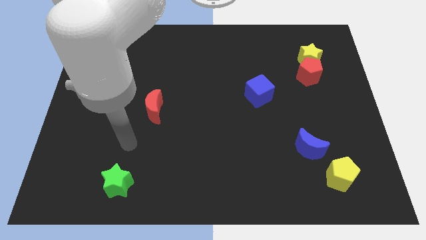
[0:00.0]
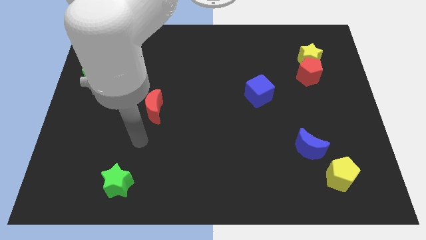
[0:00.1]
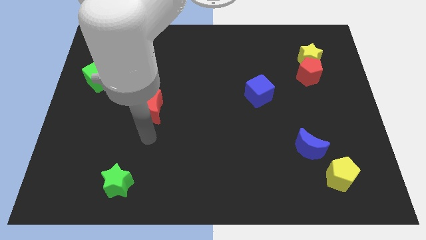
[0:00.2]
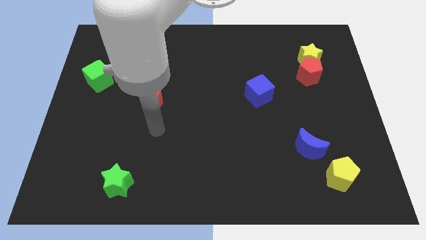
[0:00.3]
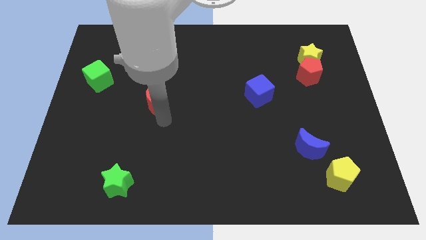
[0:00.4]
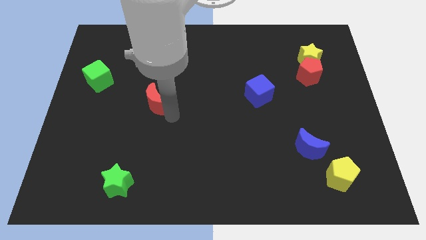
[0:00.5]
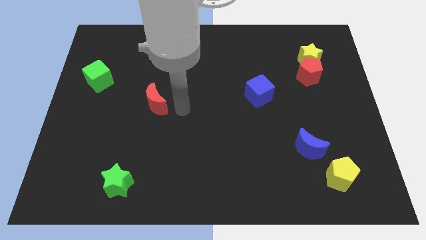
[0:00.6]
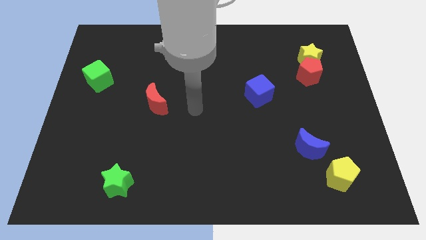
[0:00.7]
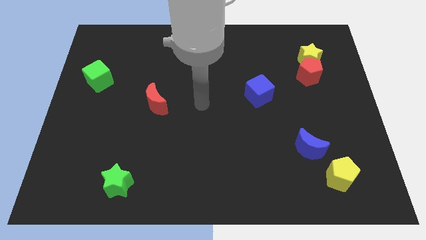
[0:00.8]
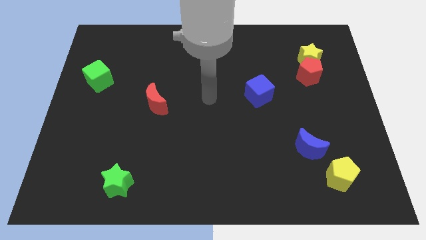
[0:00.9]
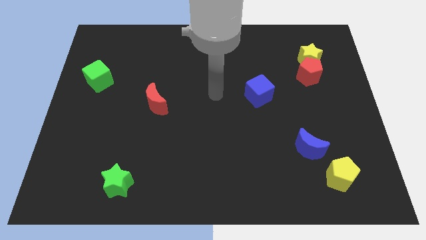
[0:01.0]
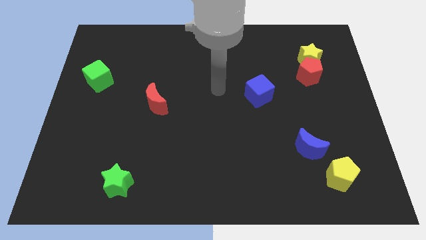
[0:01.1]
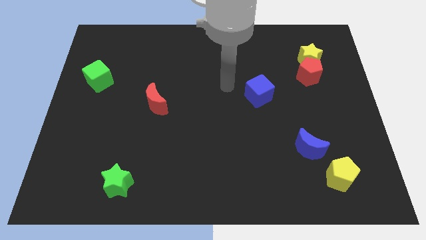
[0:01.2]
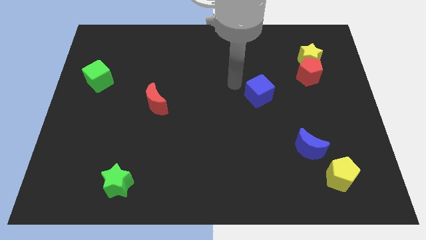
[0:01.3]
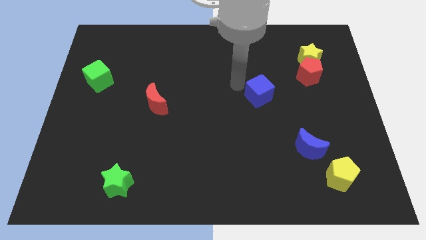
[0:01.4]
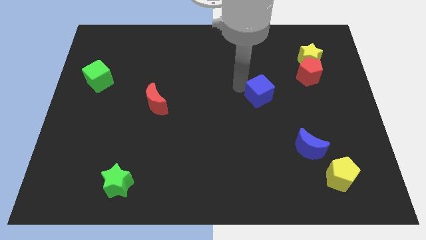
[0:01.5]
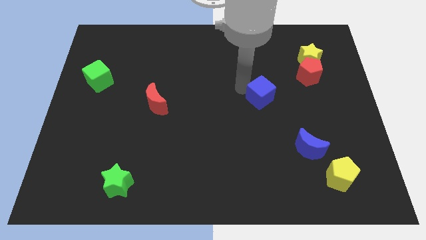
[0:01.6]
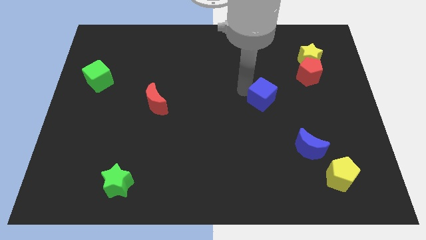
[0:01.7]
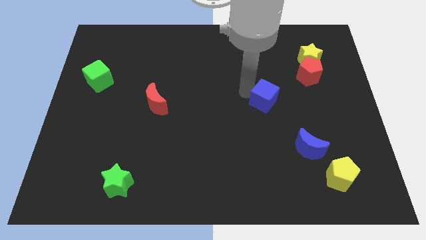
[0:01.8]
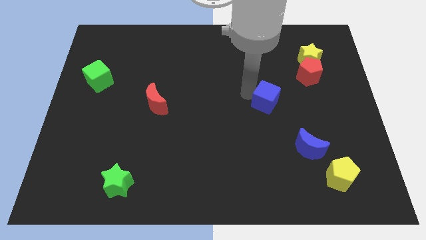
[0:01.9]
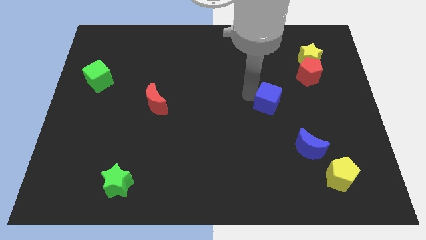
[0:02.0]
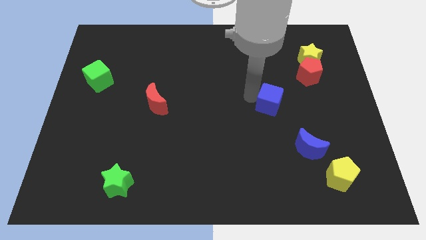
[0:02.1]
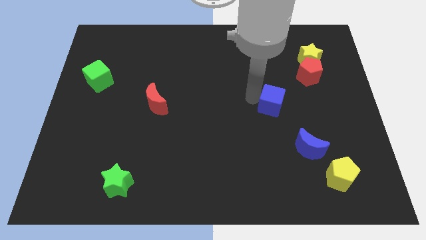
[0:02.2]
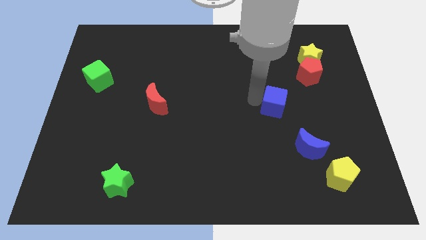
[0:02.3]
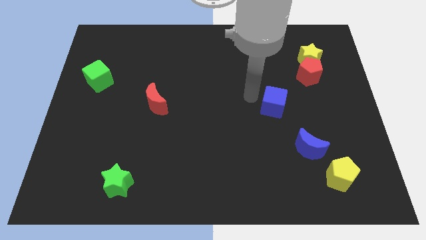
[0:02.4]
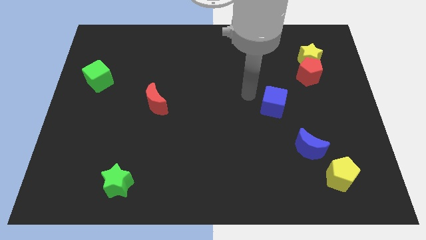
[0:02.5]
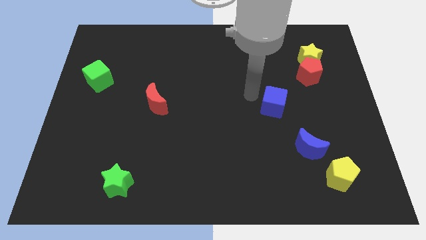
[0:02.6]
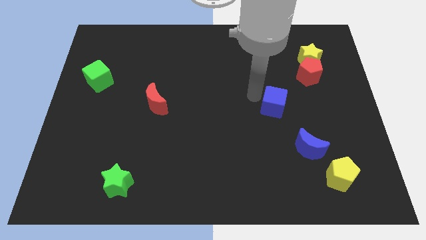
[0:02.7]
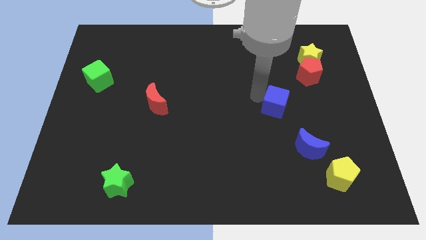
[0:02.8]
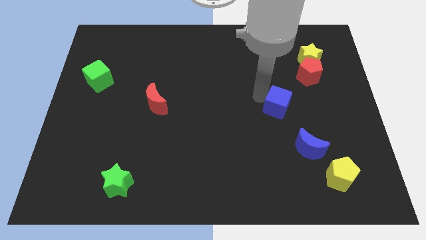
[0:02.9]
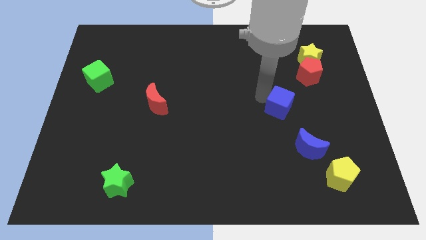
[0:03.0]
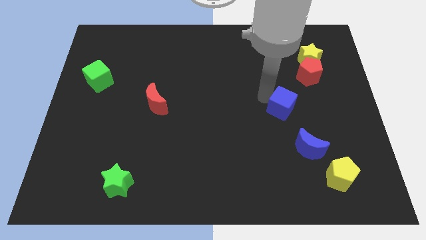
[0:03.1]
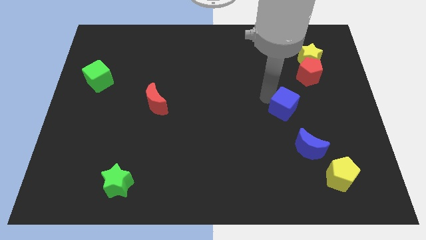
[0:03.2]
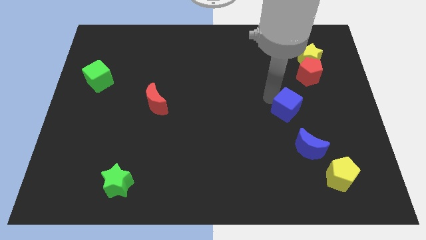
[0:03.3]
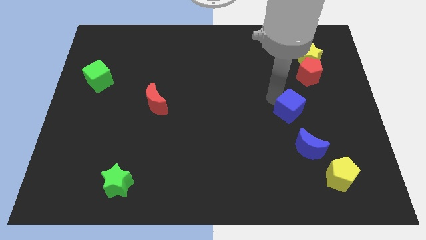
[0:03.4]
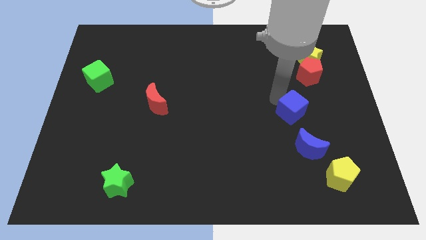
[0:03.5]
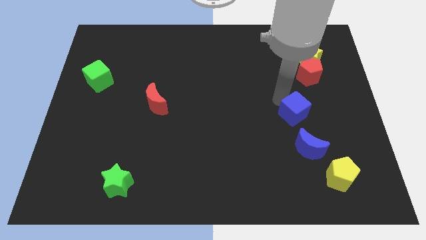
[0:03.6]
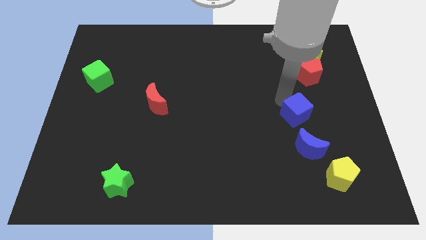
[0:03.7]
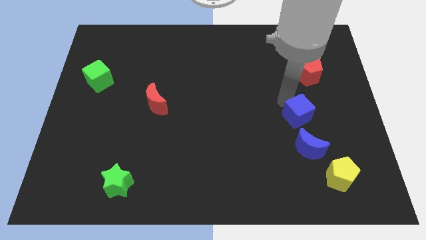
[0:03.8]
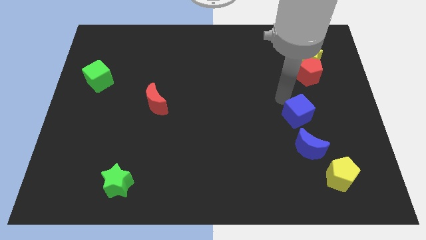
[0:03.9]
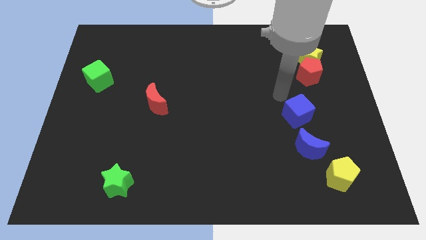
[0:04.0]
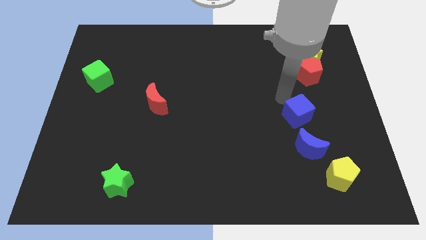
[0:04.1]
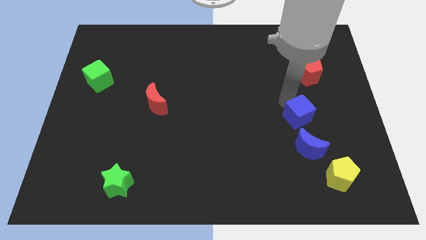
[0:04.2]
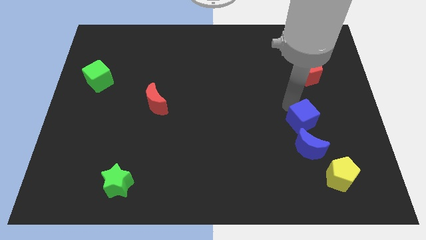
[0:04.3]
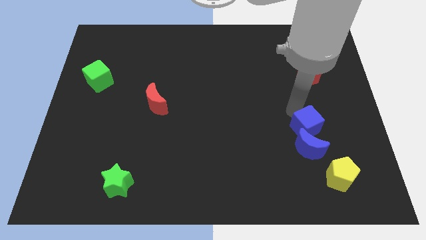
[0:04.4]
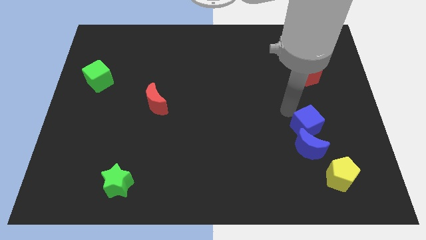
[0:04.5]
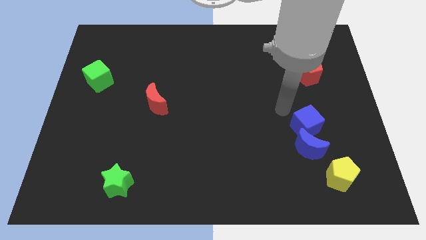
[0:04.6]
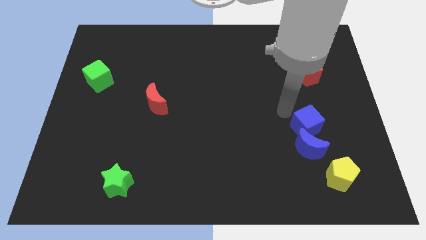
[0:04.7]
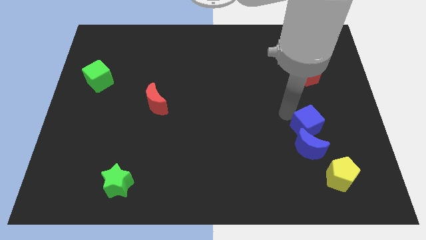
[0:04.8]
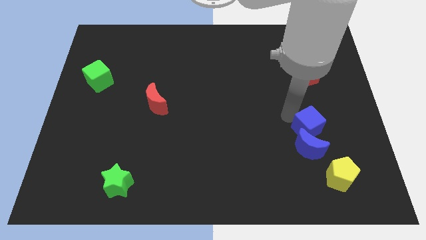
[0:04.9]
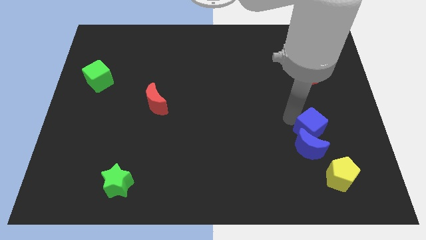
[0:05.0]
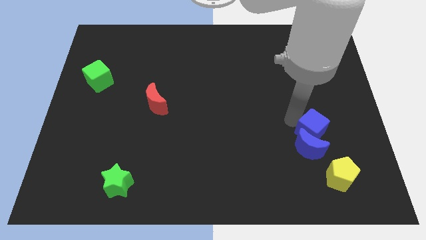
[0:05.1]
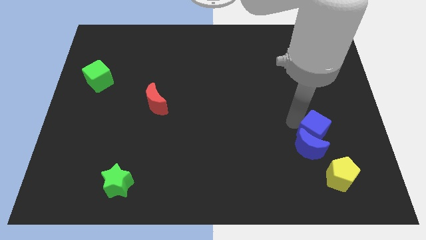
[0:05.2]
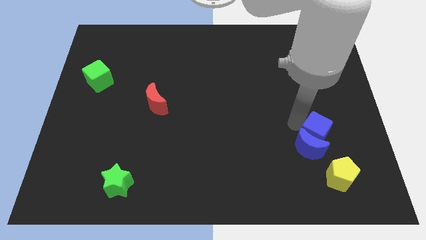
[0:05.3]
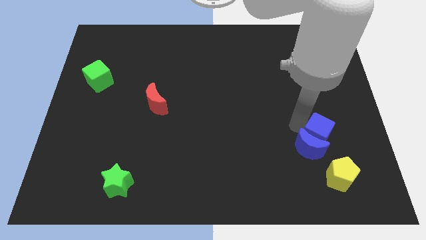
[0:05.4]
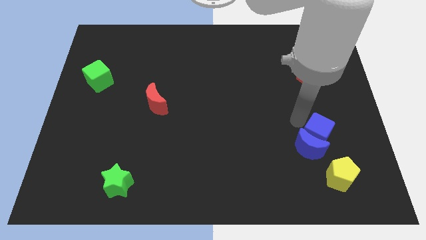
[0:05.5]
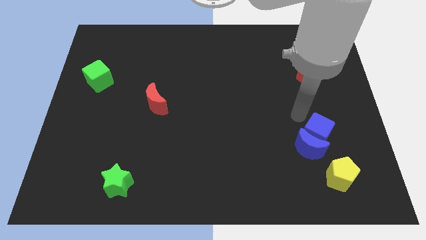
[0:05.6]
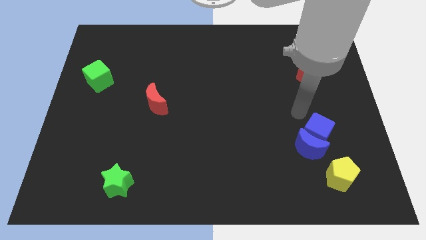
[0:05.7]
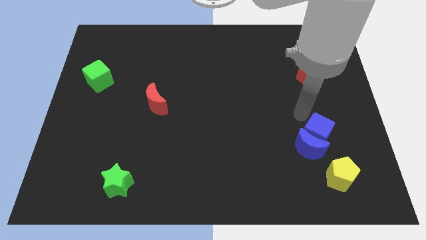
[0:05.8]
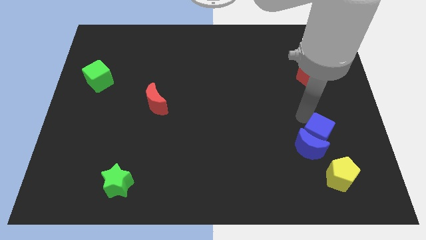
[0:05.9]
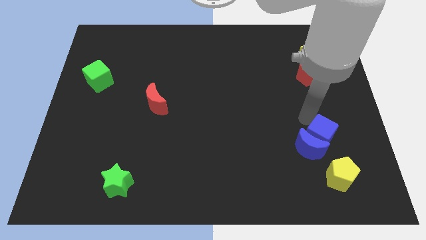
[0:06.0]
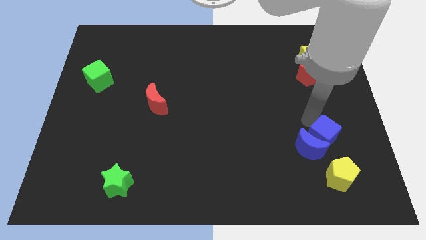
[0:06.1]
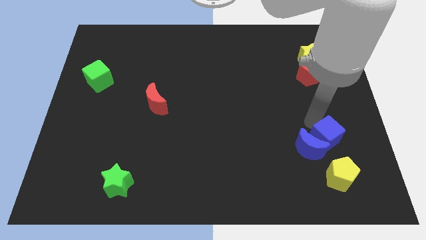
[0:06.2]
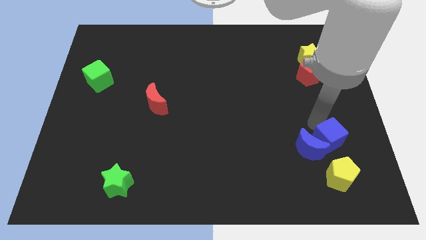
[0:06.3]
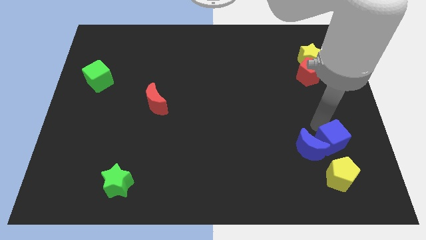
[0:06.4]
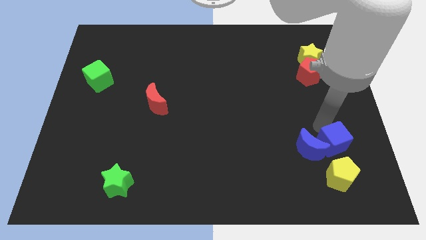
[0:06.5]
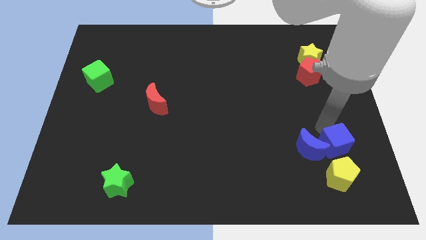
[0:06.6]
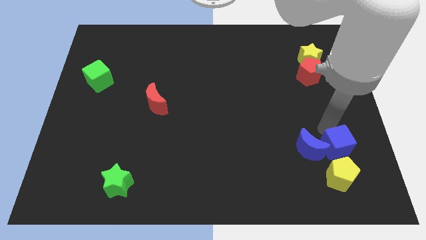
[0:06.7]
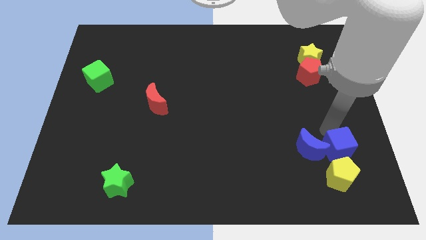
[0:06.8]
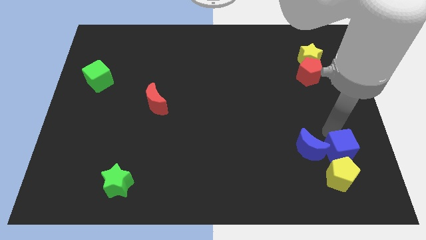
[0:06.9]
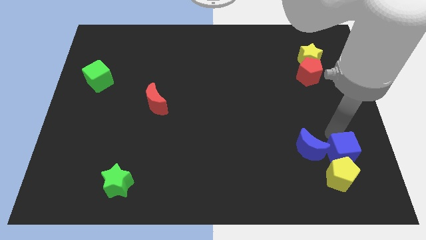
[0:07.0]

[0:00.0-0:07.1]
put the blue cube towards the yellow pentagon
